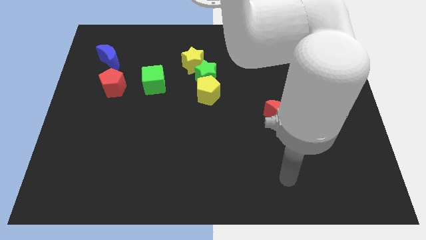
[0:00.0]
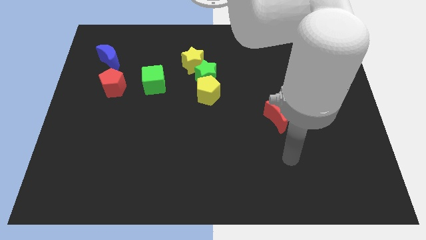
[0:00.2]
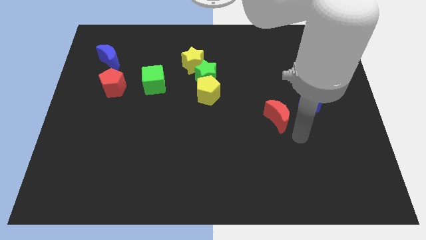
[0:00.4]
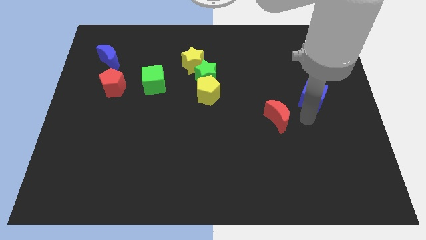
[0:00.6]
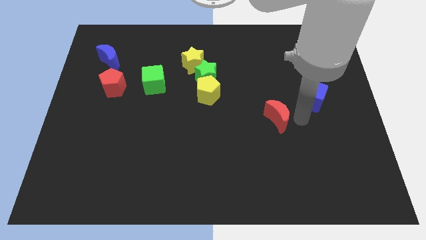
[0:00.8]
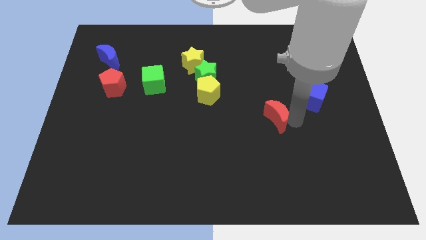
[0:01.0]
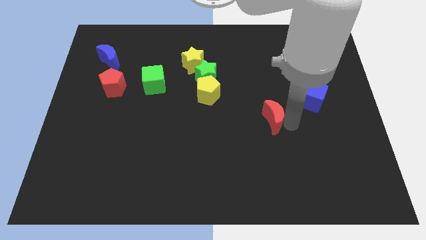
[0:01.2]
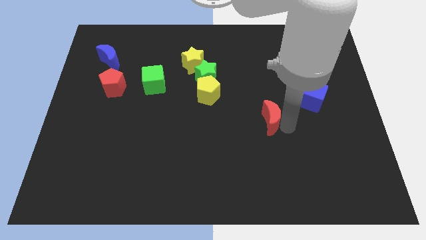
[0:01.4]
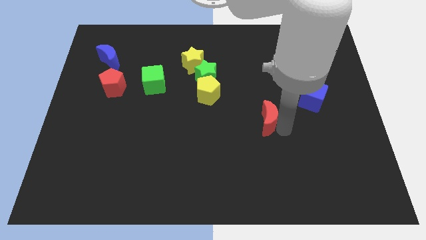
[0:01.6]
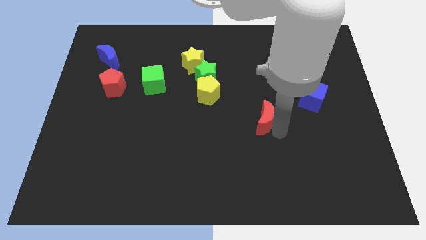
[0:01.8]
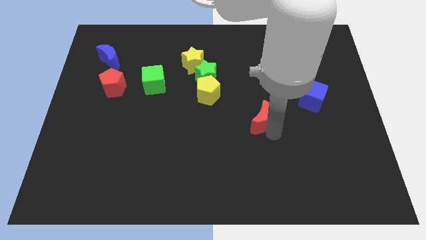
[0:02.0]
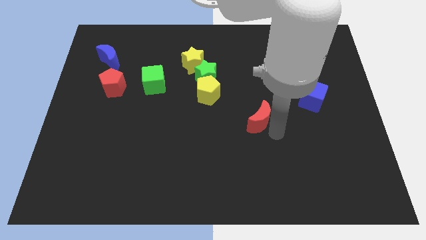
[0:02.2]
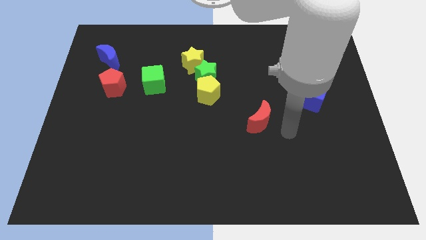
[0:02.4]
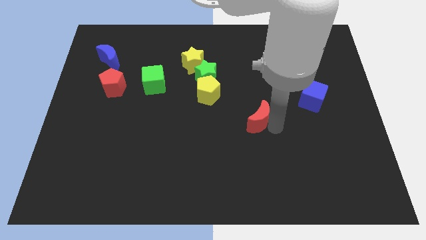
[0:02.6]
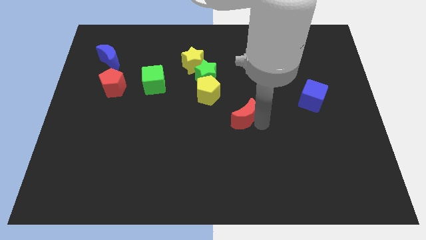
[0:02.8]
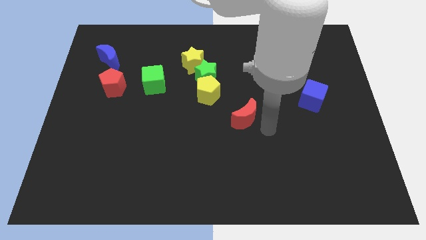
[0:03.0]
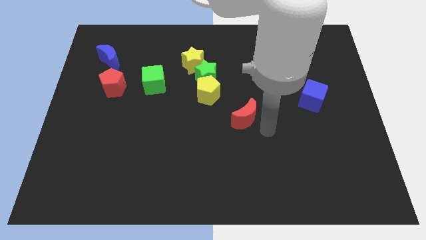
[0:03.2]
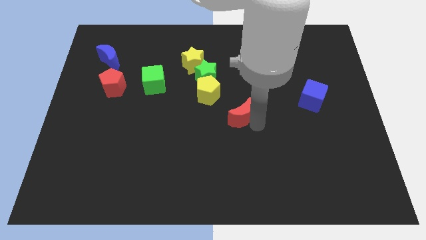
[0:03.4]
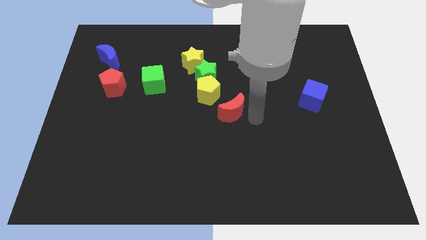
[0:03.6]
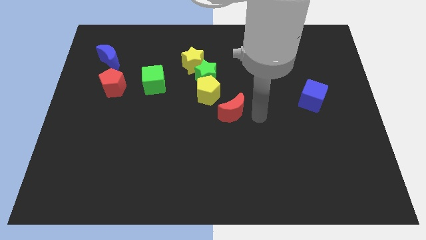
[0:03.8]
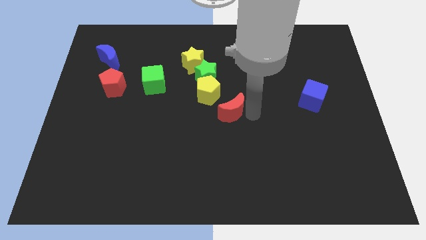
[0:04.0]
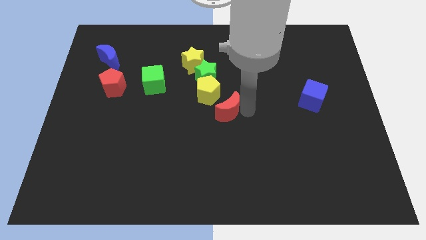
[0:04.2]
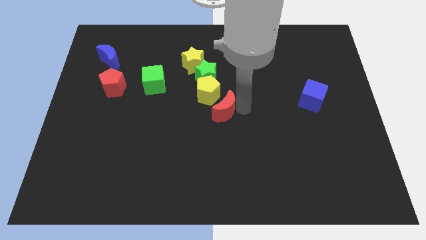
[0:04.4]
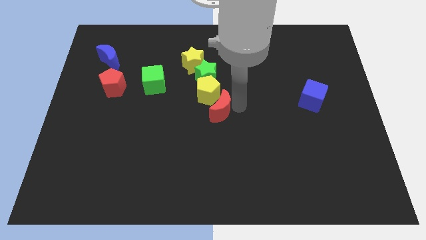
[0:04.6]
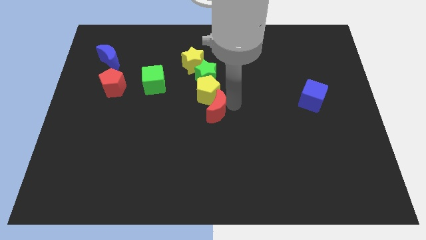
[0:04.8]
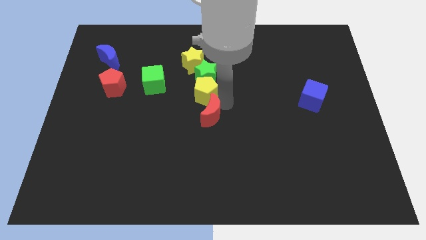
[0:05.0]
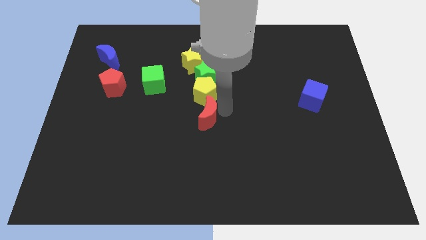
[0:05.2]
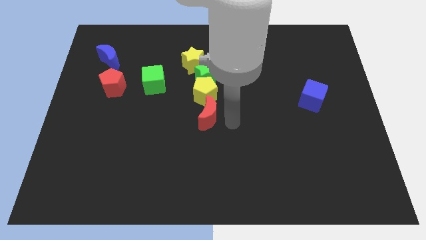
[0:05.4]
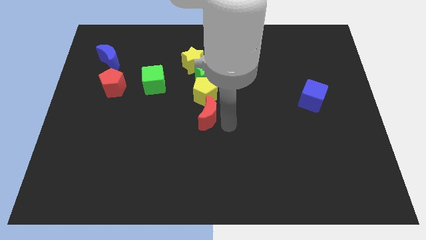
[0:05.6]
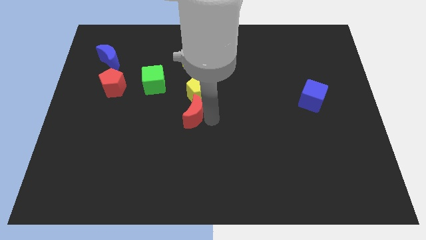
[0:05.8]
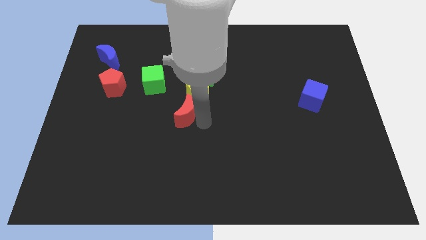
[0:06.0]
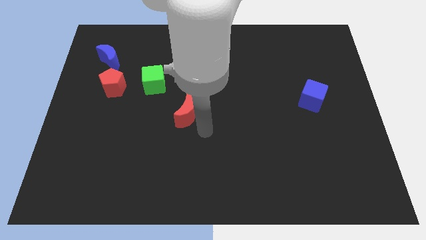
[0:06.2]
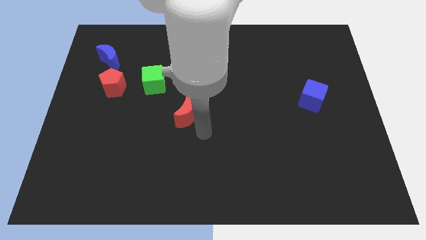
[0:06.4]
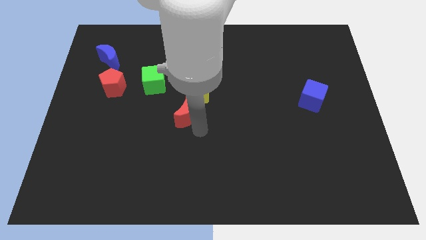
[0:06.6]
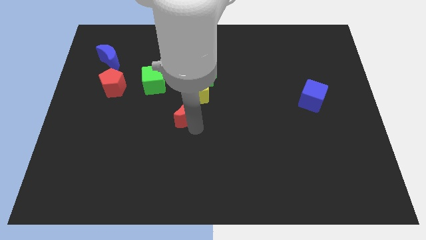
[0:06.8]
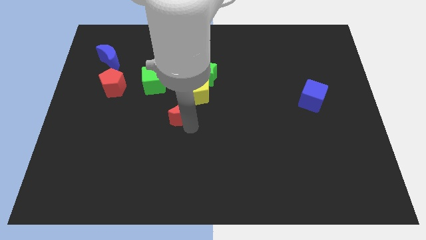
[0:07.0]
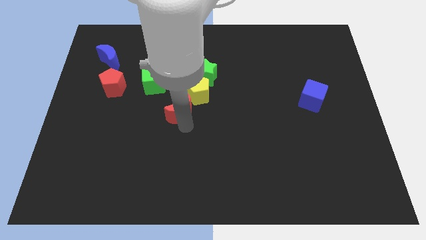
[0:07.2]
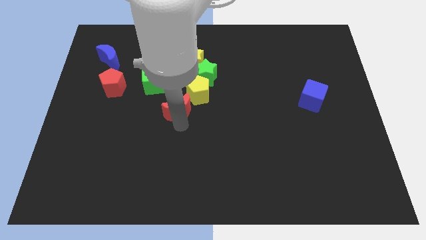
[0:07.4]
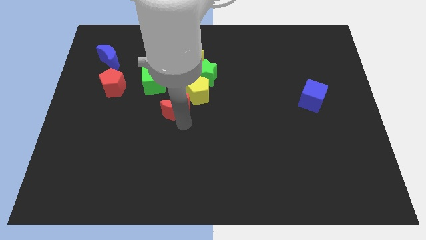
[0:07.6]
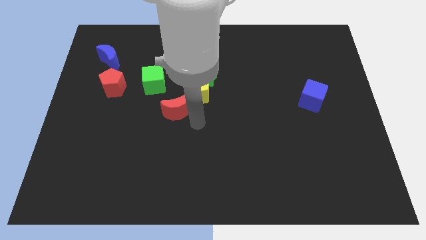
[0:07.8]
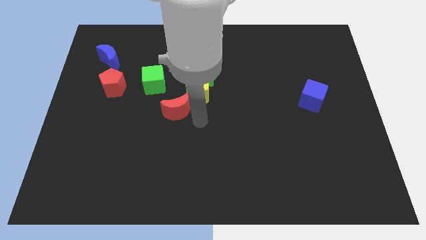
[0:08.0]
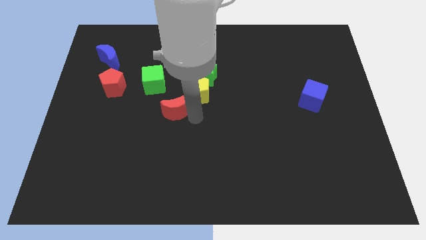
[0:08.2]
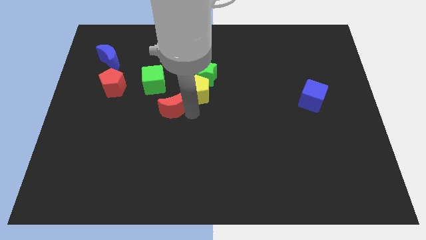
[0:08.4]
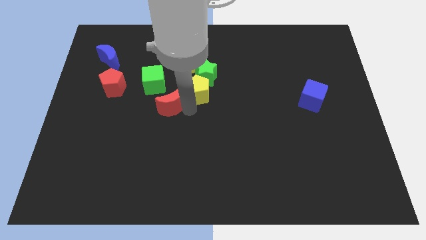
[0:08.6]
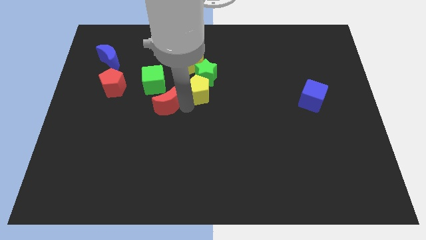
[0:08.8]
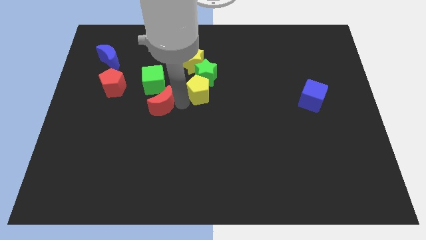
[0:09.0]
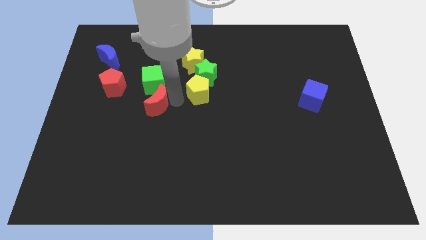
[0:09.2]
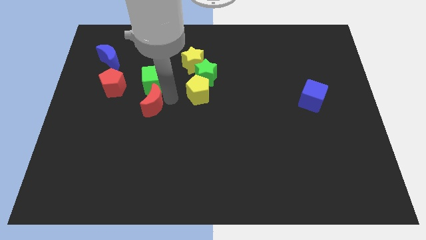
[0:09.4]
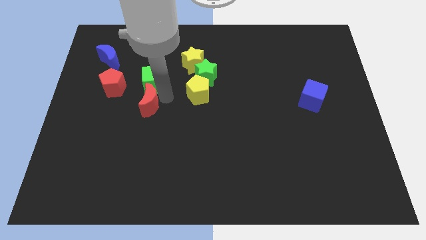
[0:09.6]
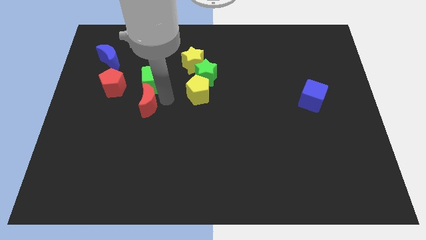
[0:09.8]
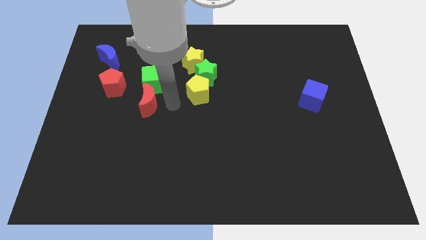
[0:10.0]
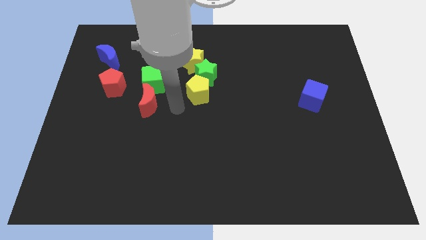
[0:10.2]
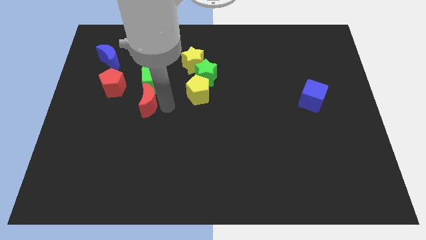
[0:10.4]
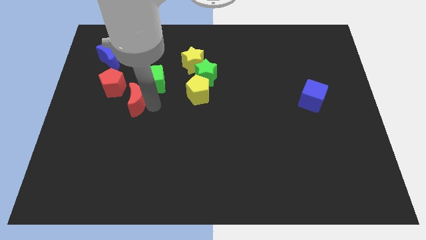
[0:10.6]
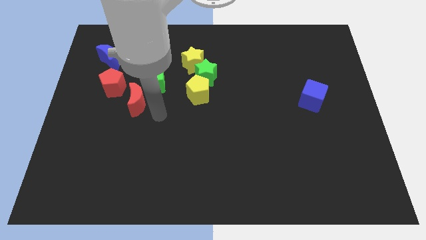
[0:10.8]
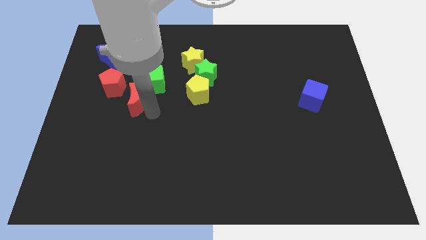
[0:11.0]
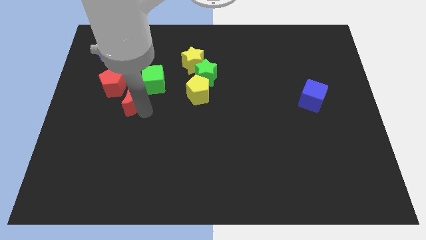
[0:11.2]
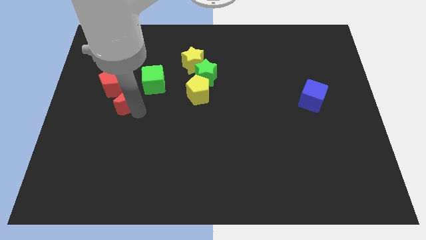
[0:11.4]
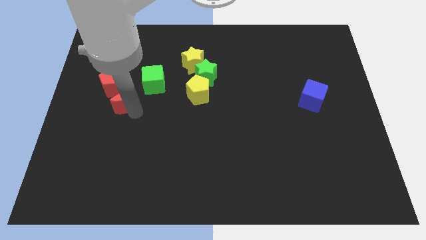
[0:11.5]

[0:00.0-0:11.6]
slide the red moon towards the red pentagon

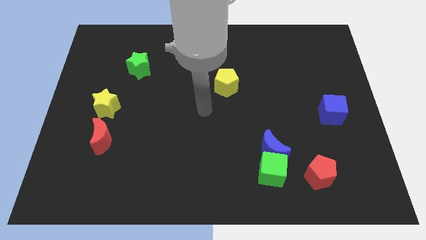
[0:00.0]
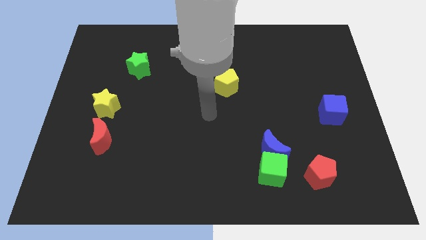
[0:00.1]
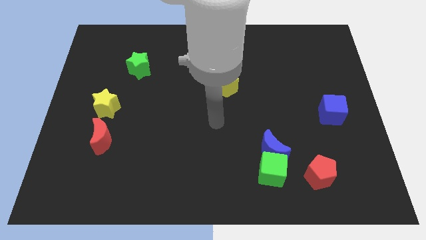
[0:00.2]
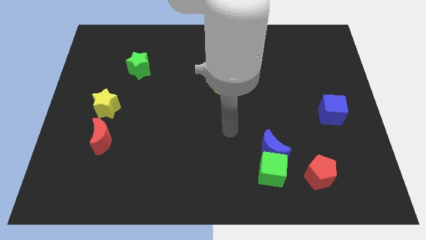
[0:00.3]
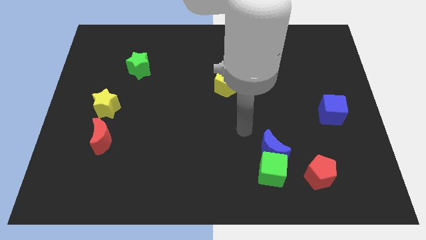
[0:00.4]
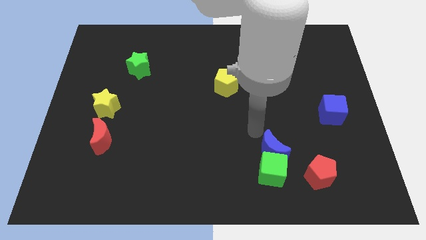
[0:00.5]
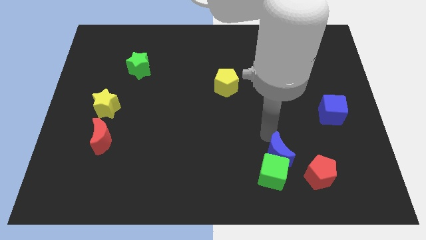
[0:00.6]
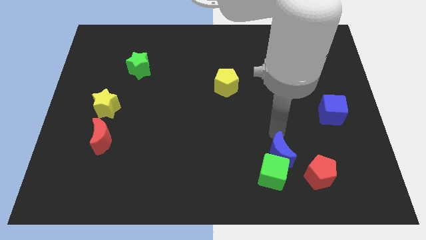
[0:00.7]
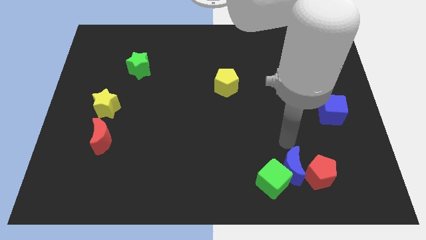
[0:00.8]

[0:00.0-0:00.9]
push the red pentagon to the blue moon
